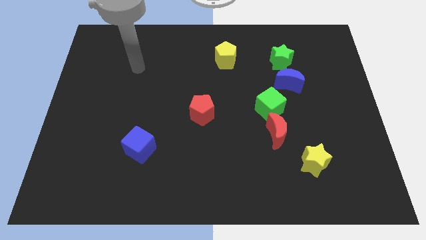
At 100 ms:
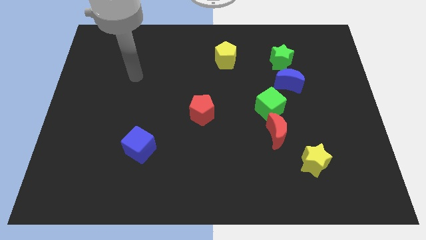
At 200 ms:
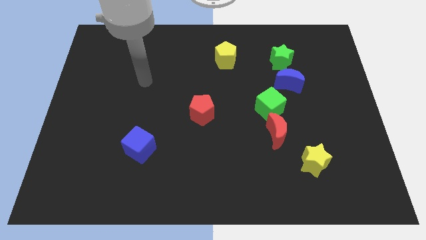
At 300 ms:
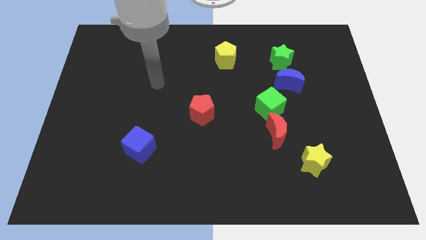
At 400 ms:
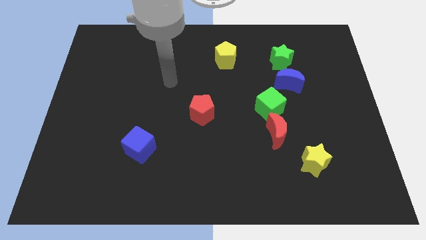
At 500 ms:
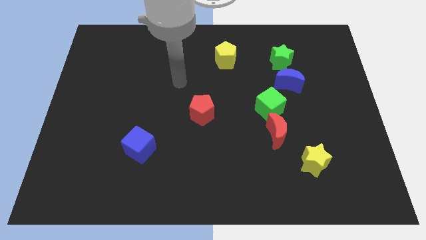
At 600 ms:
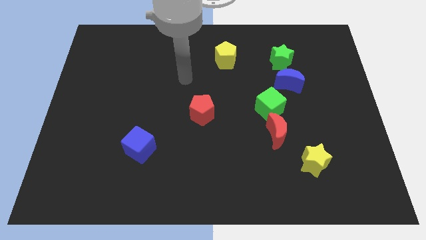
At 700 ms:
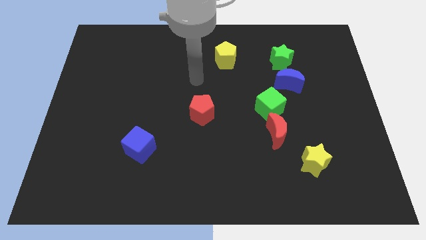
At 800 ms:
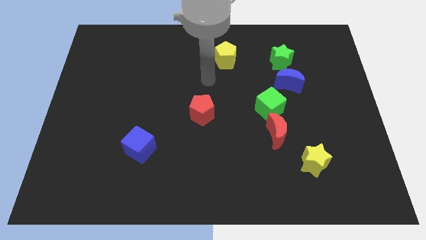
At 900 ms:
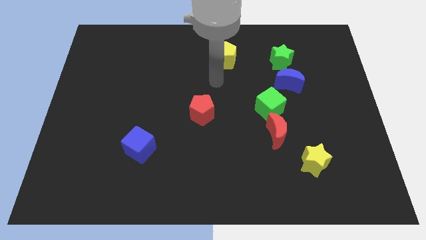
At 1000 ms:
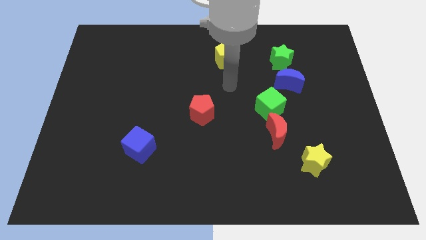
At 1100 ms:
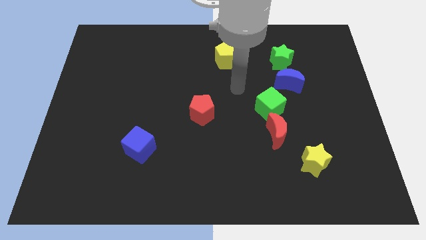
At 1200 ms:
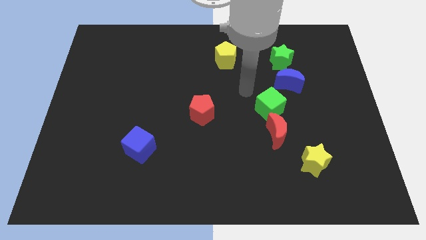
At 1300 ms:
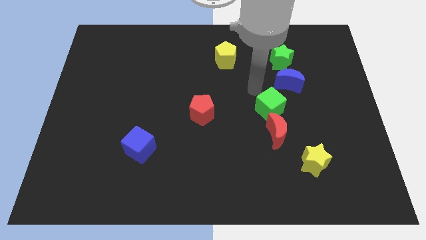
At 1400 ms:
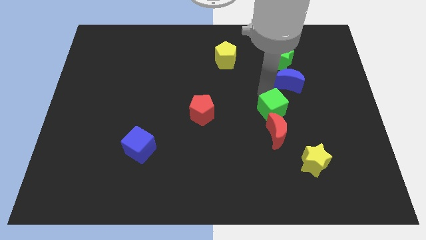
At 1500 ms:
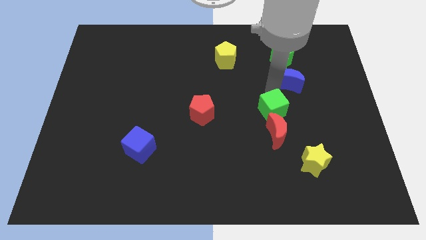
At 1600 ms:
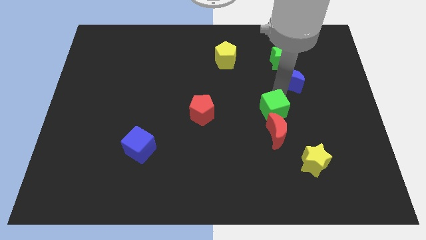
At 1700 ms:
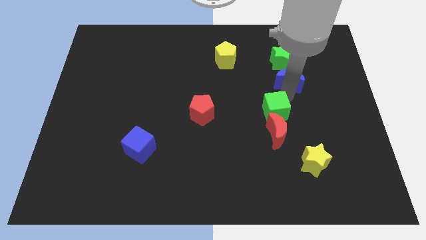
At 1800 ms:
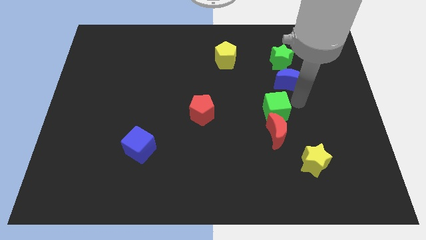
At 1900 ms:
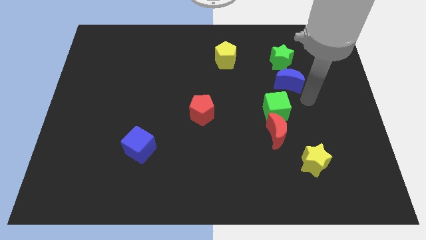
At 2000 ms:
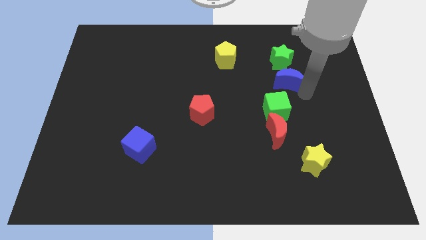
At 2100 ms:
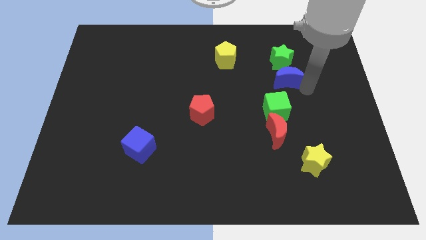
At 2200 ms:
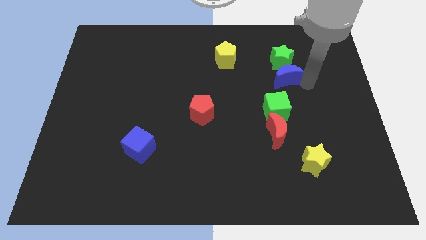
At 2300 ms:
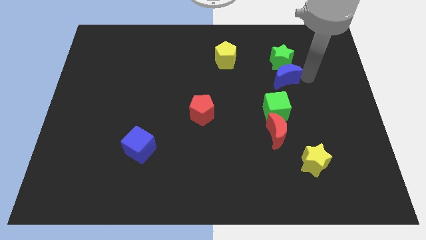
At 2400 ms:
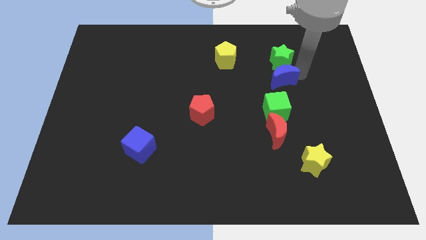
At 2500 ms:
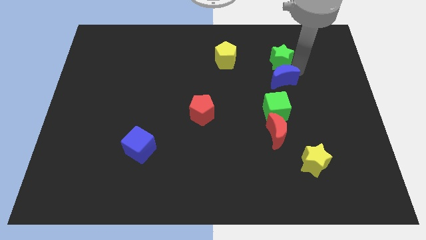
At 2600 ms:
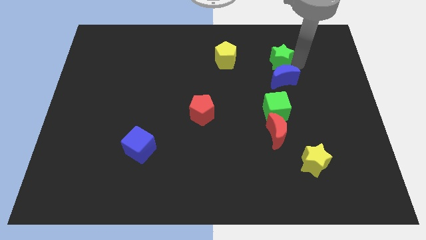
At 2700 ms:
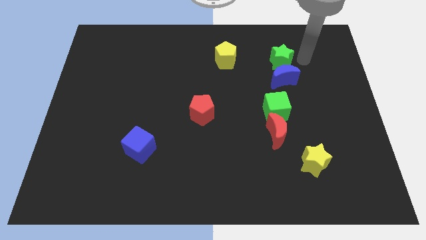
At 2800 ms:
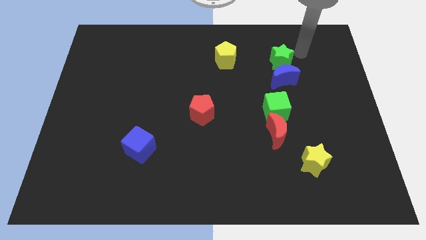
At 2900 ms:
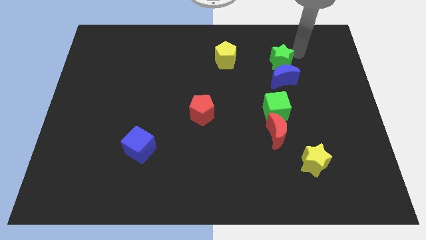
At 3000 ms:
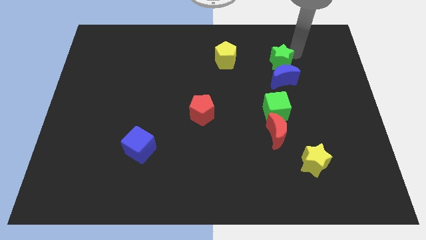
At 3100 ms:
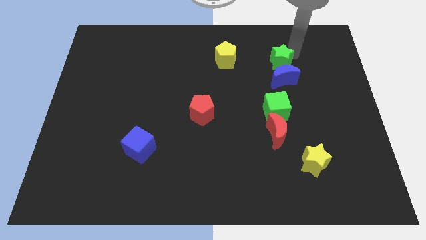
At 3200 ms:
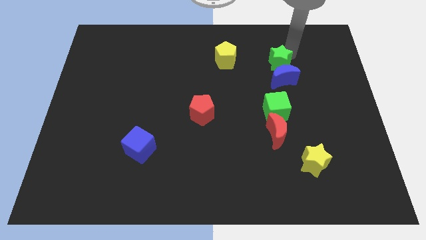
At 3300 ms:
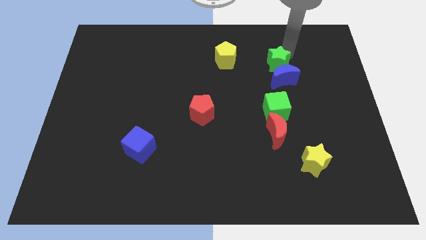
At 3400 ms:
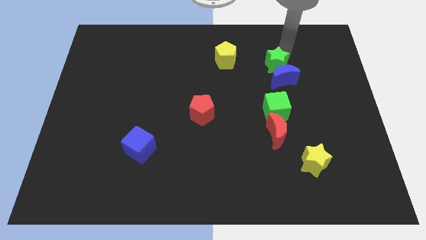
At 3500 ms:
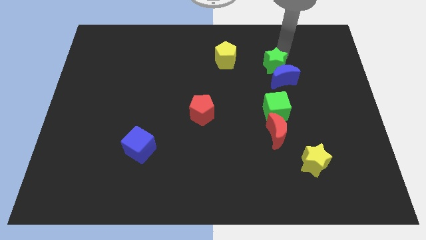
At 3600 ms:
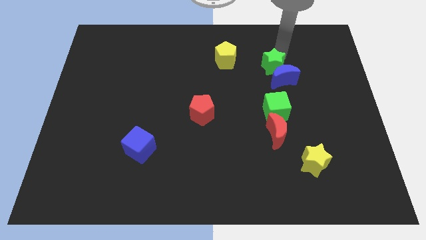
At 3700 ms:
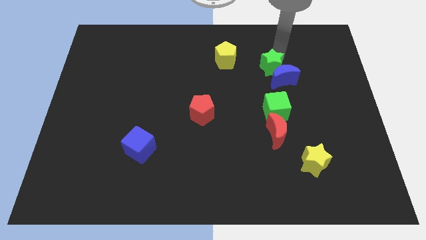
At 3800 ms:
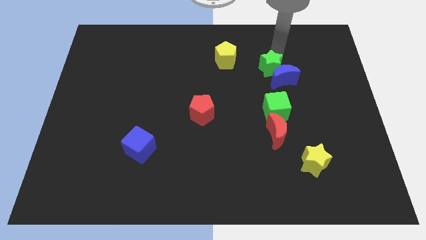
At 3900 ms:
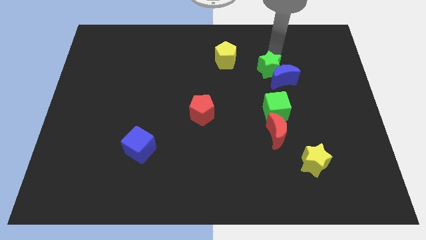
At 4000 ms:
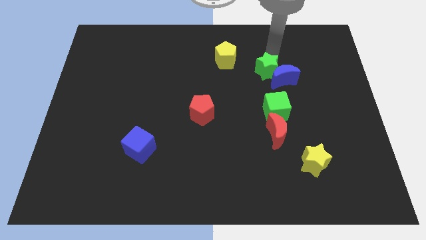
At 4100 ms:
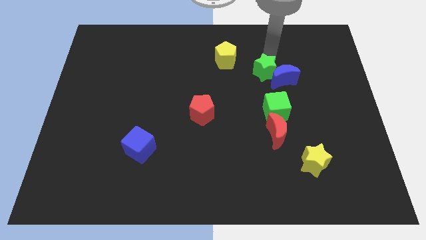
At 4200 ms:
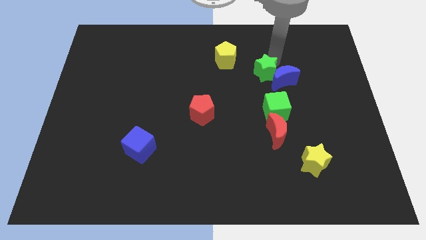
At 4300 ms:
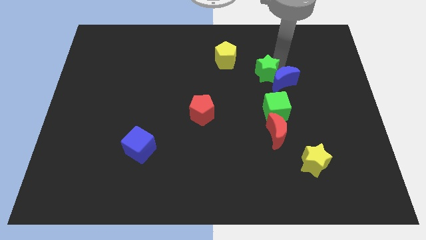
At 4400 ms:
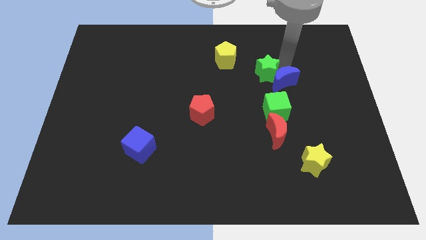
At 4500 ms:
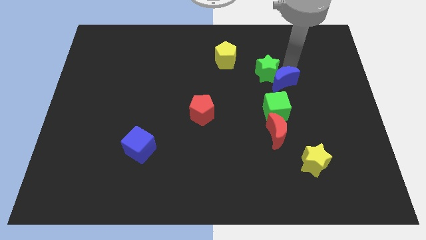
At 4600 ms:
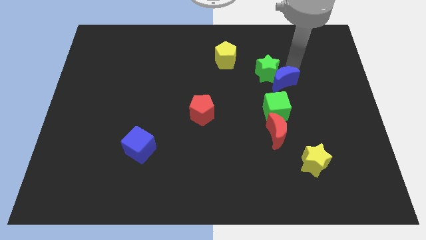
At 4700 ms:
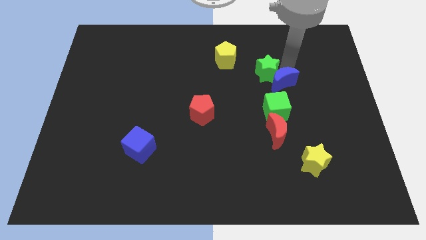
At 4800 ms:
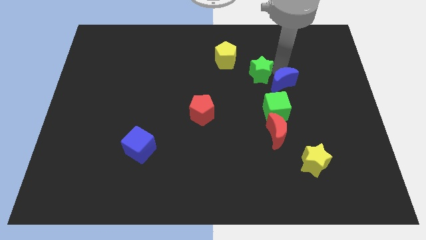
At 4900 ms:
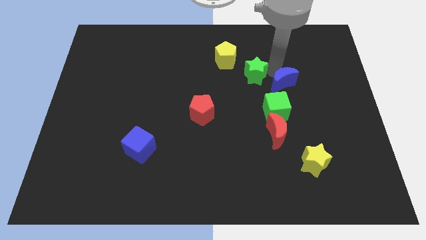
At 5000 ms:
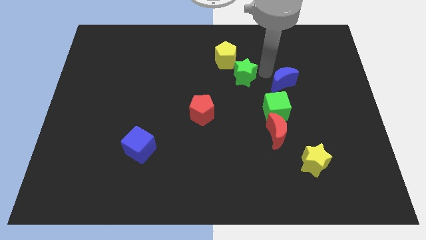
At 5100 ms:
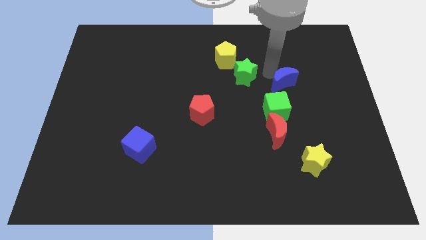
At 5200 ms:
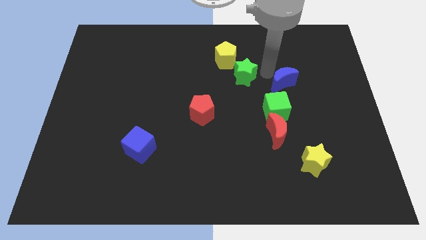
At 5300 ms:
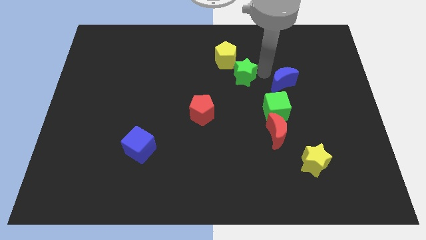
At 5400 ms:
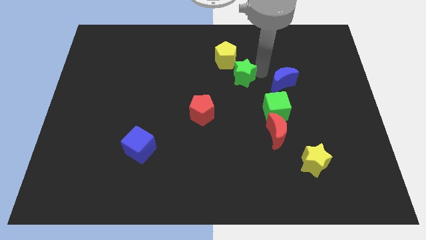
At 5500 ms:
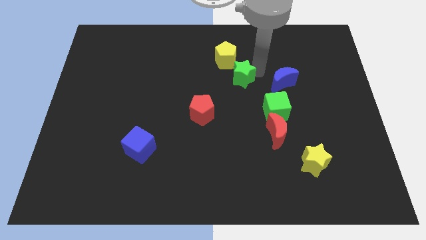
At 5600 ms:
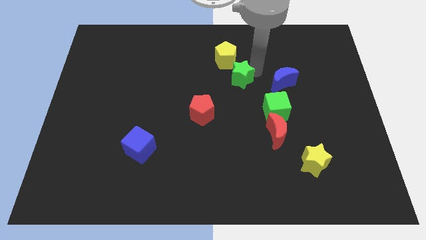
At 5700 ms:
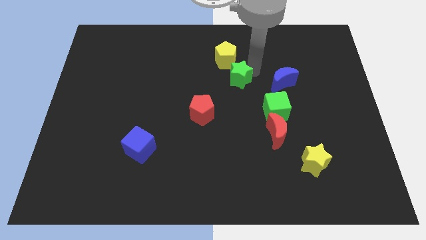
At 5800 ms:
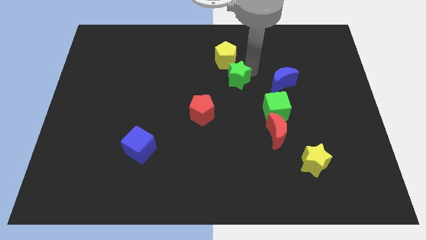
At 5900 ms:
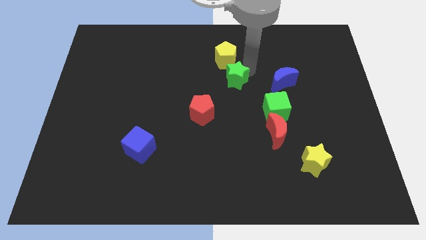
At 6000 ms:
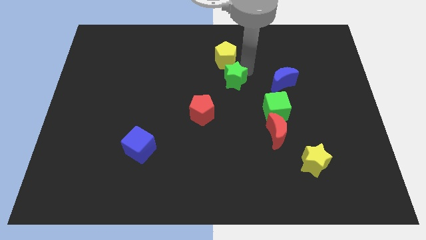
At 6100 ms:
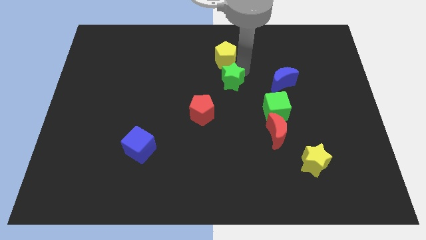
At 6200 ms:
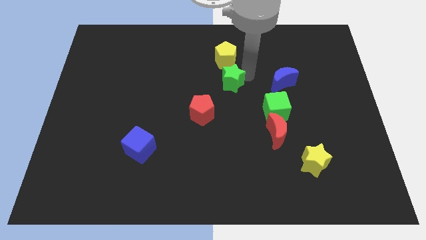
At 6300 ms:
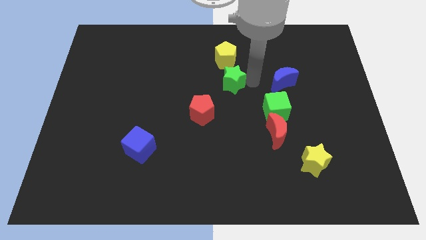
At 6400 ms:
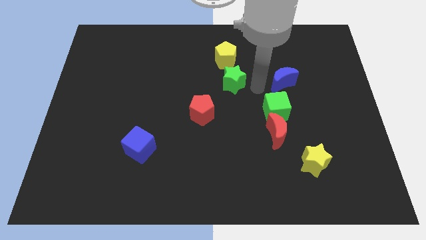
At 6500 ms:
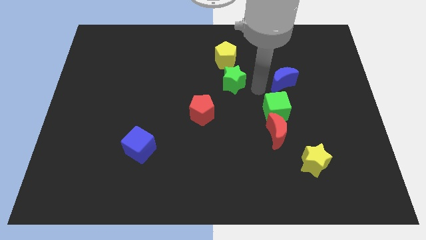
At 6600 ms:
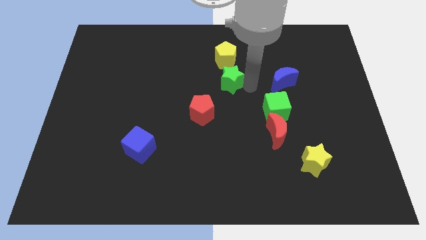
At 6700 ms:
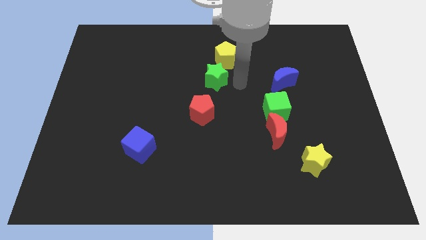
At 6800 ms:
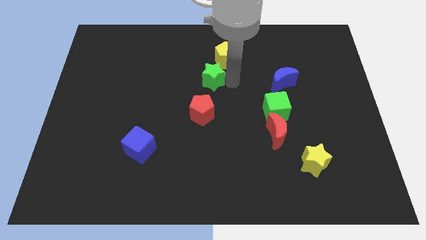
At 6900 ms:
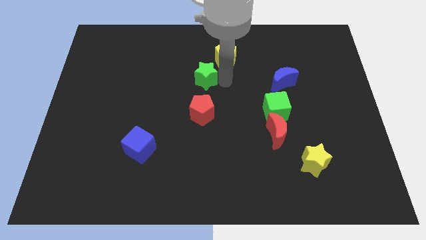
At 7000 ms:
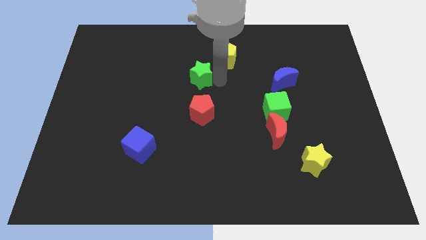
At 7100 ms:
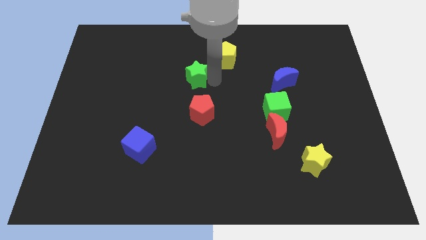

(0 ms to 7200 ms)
move the green star left

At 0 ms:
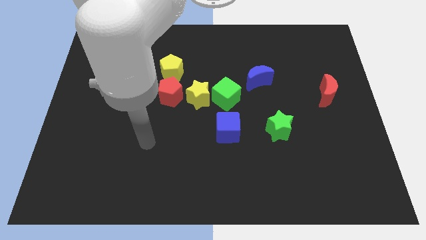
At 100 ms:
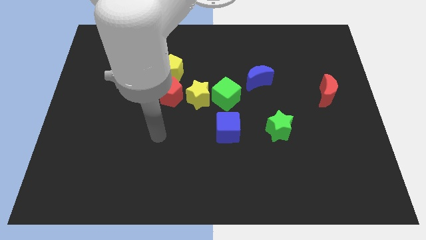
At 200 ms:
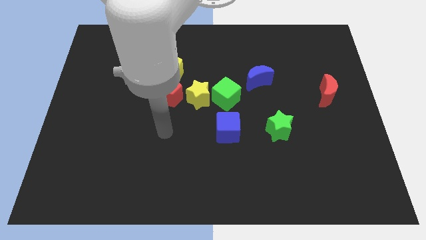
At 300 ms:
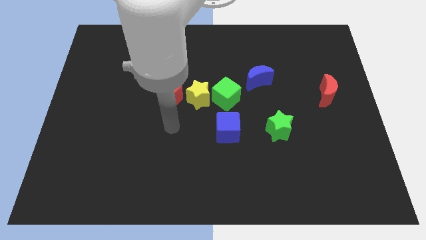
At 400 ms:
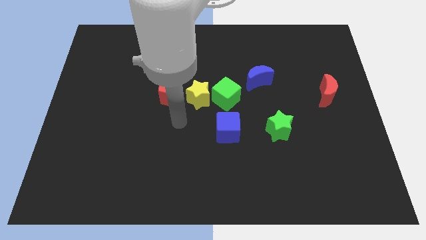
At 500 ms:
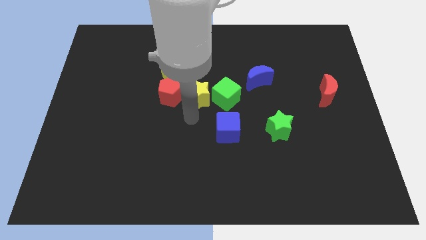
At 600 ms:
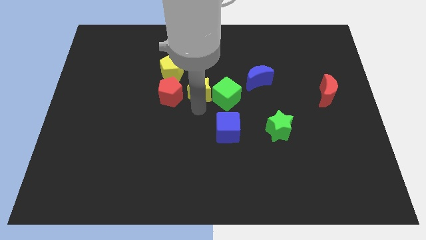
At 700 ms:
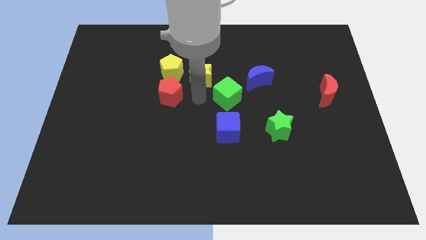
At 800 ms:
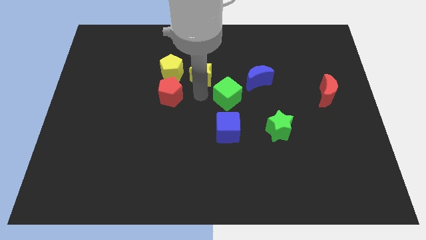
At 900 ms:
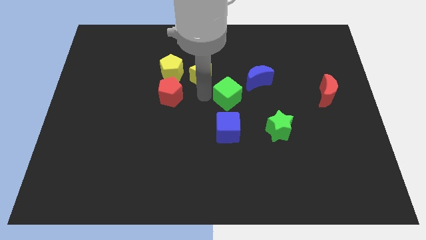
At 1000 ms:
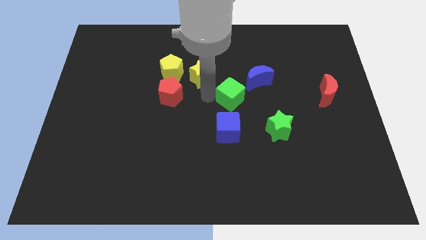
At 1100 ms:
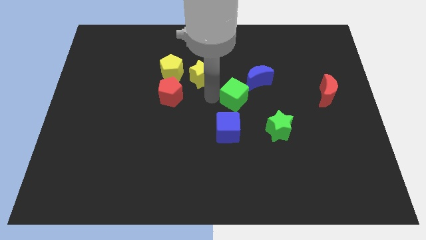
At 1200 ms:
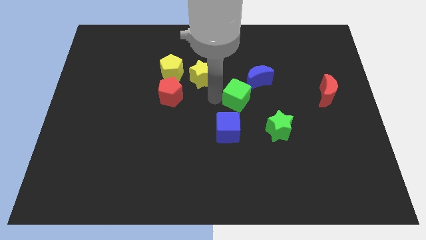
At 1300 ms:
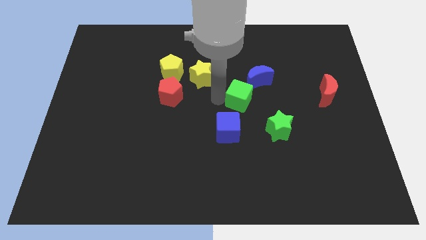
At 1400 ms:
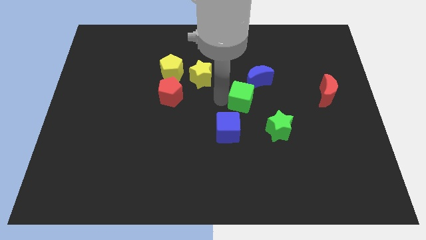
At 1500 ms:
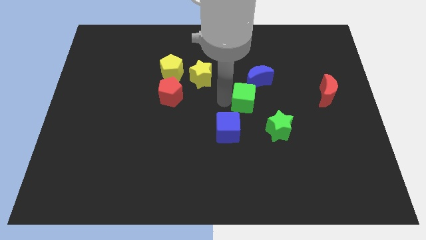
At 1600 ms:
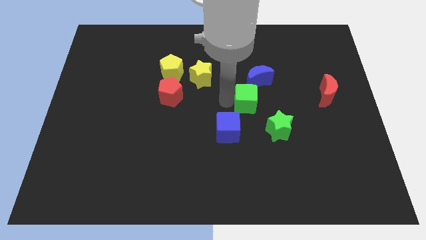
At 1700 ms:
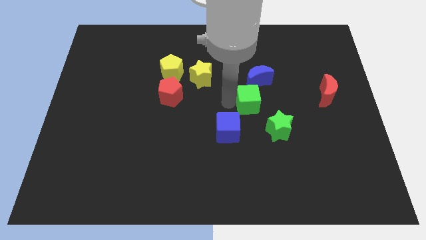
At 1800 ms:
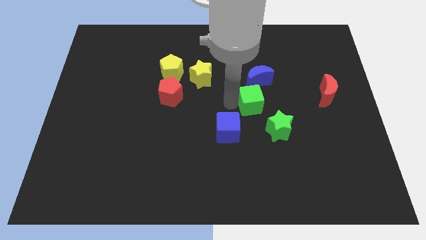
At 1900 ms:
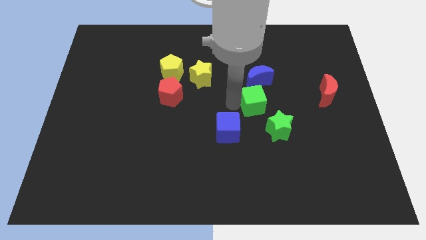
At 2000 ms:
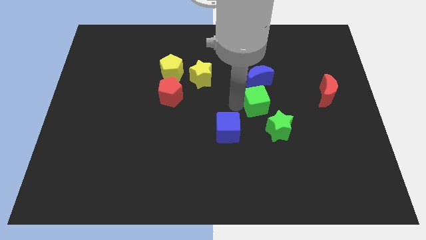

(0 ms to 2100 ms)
push the green cube to the right a little bit
